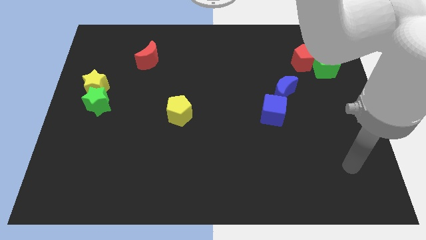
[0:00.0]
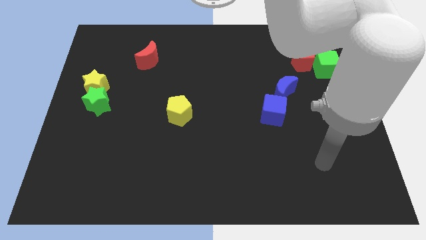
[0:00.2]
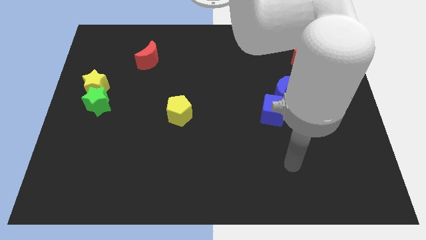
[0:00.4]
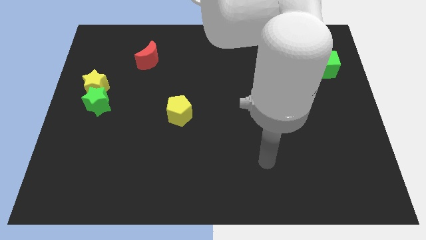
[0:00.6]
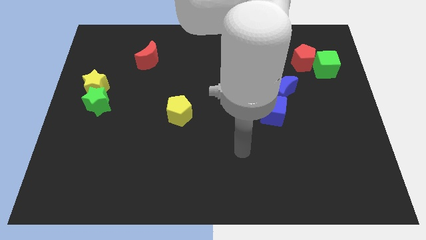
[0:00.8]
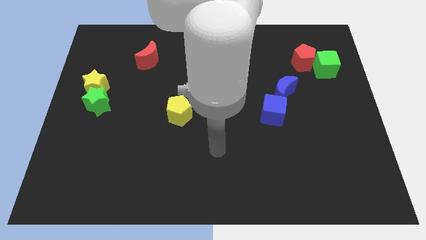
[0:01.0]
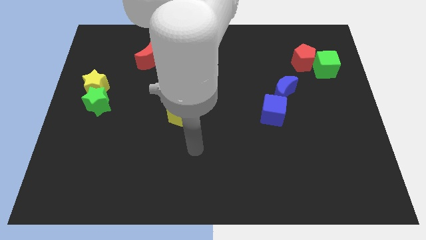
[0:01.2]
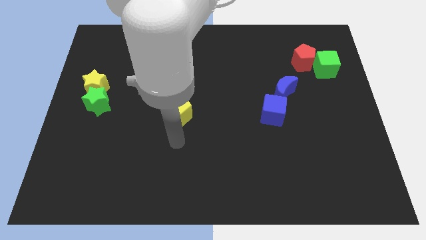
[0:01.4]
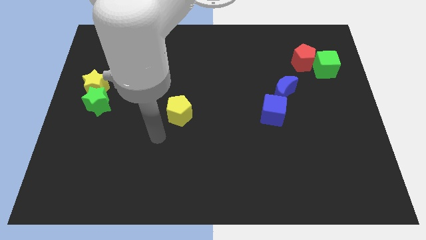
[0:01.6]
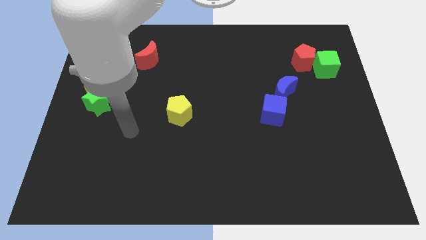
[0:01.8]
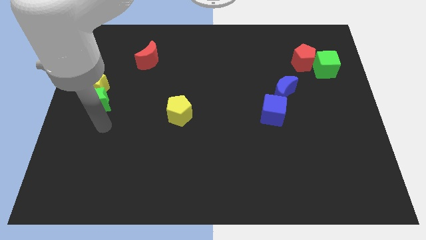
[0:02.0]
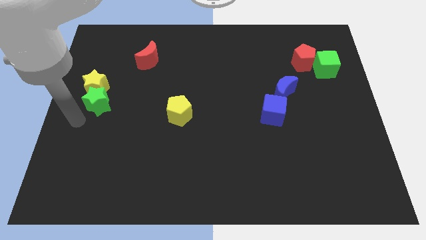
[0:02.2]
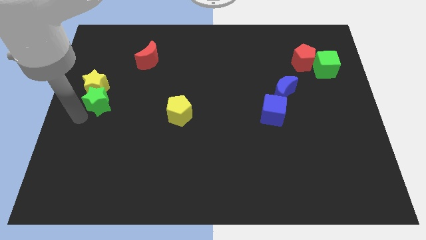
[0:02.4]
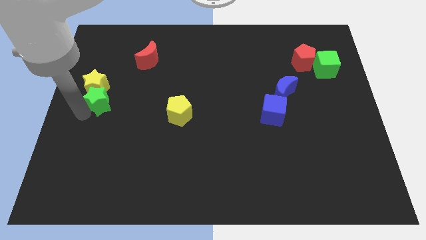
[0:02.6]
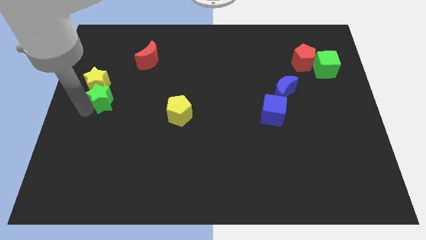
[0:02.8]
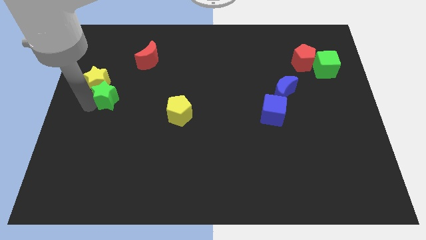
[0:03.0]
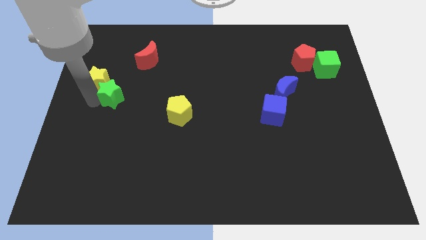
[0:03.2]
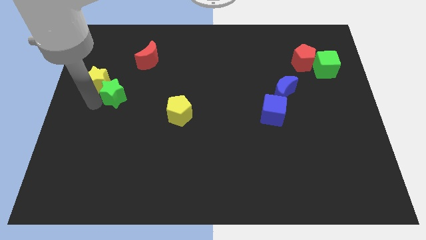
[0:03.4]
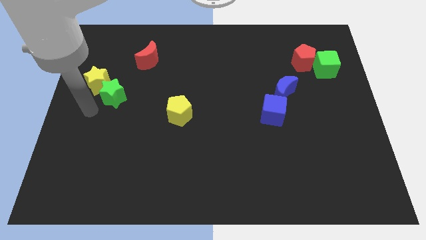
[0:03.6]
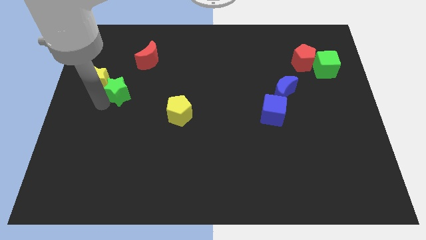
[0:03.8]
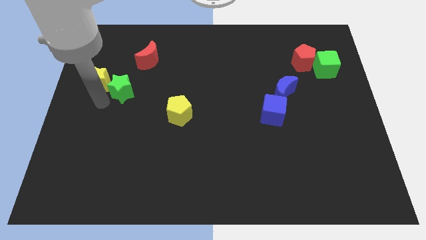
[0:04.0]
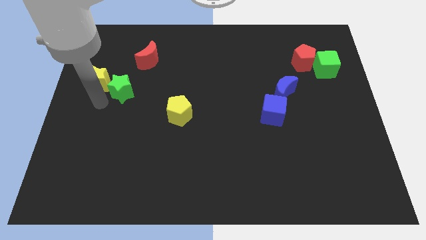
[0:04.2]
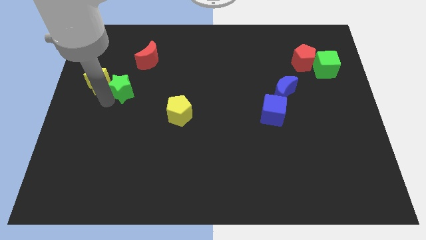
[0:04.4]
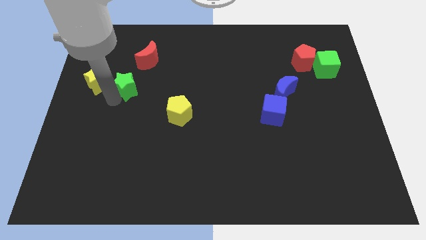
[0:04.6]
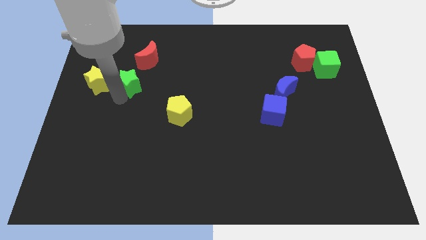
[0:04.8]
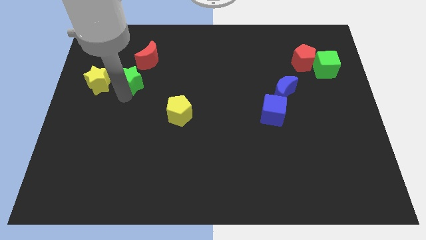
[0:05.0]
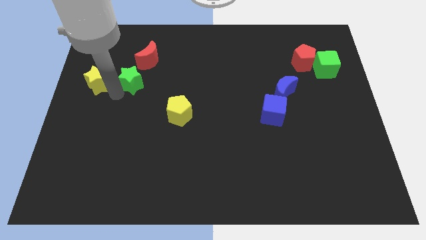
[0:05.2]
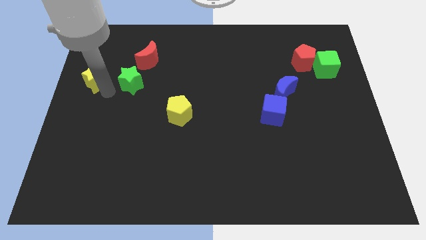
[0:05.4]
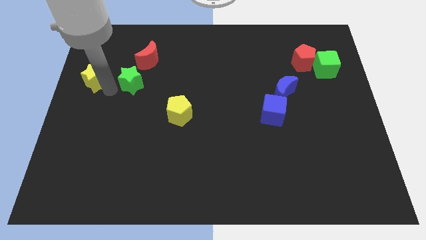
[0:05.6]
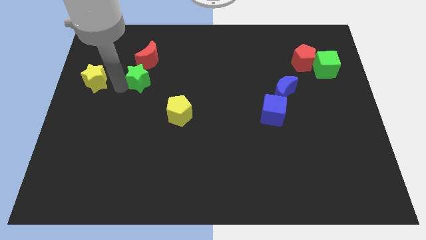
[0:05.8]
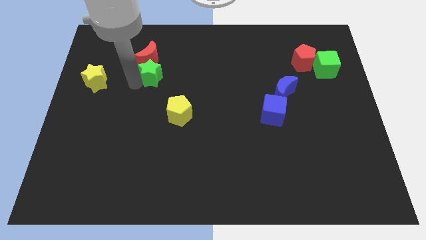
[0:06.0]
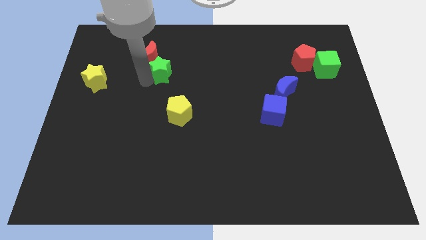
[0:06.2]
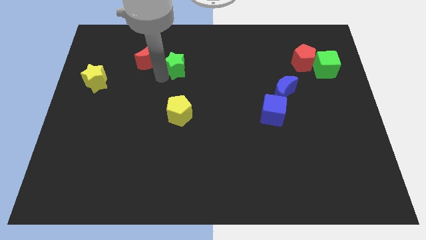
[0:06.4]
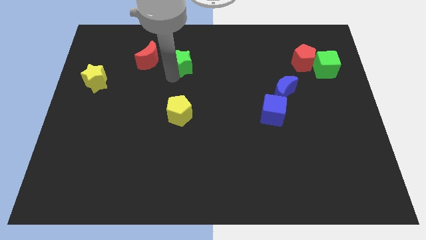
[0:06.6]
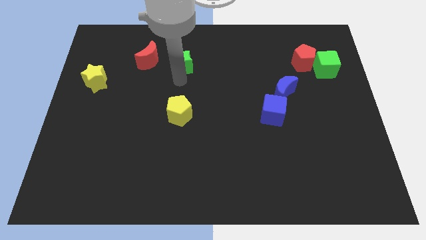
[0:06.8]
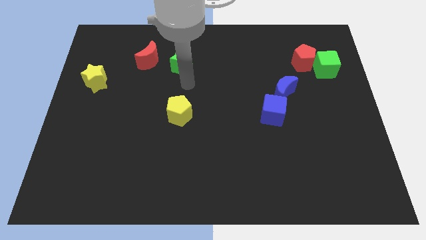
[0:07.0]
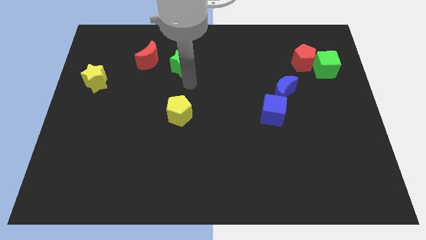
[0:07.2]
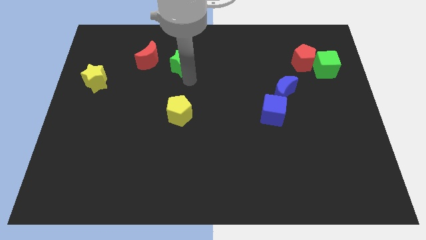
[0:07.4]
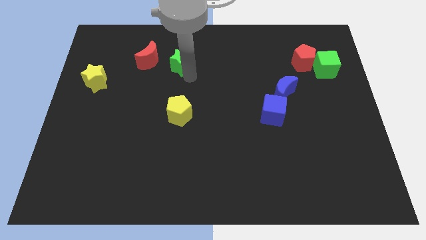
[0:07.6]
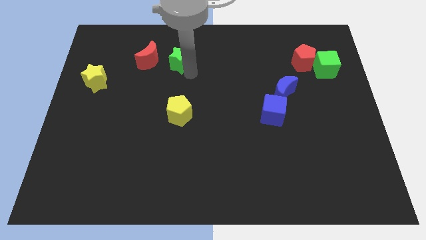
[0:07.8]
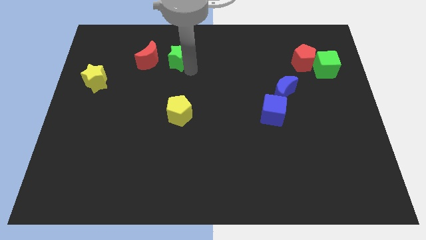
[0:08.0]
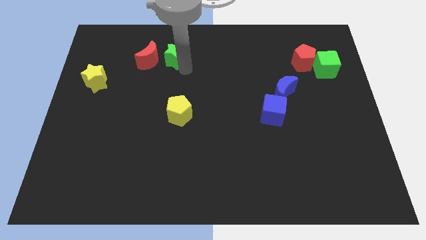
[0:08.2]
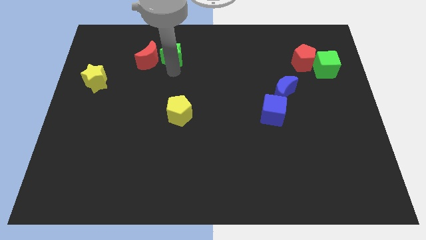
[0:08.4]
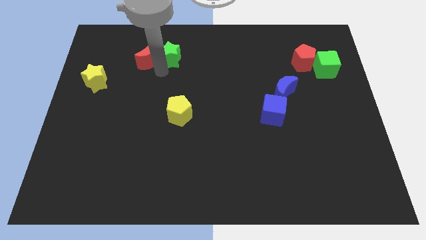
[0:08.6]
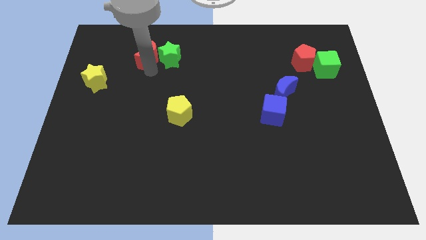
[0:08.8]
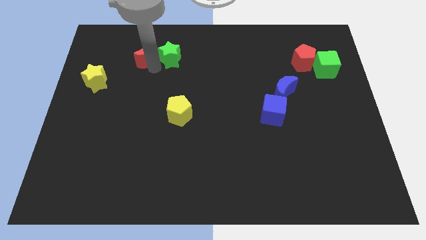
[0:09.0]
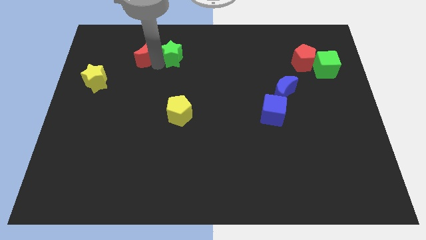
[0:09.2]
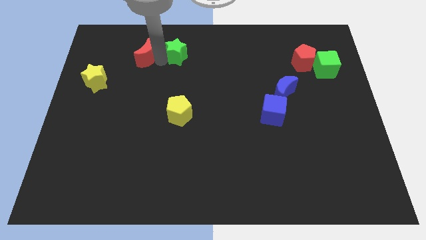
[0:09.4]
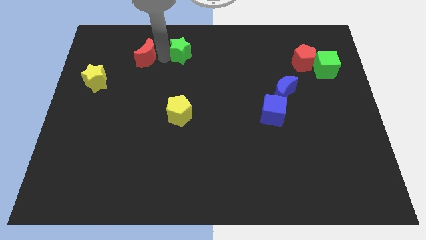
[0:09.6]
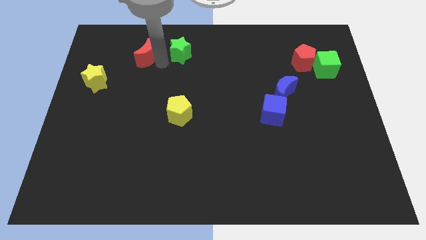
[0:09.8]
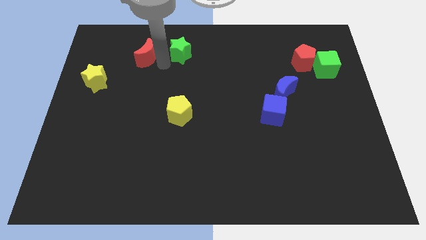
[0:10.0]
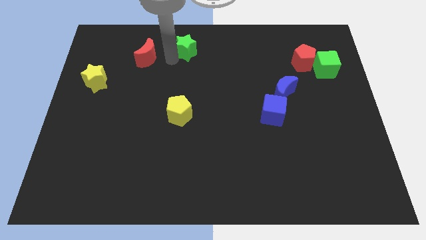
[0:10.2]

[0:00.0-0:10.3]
move the green star to the towards your base

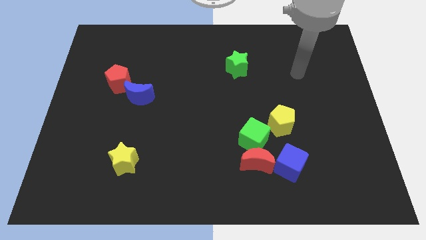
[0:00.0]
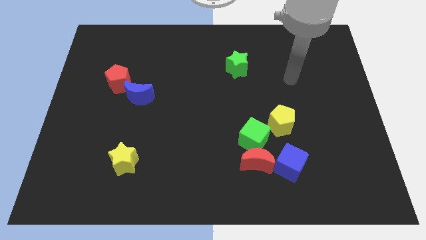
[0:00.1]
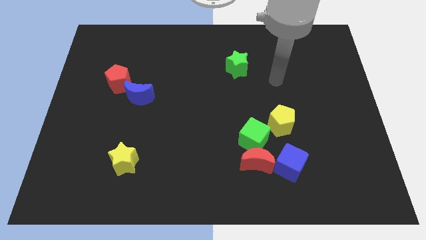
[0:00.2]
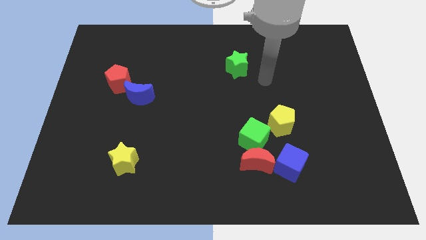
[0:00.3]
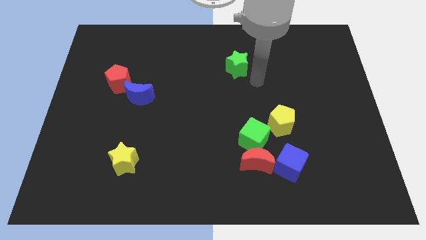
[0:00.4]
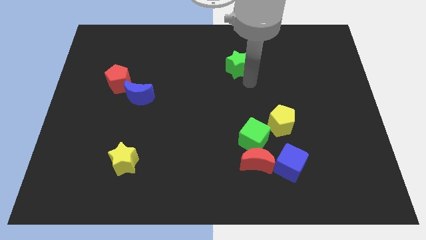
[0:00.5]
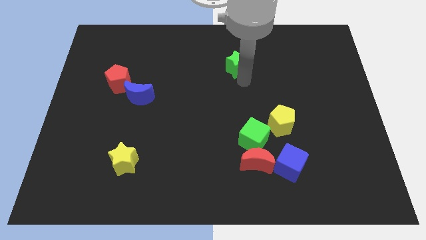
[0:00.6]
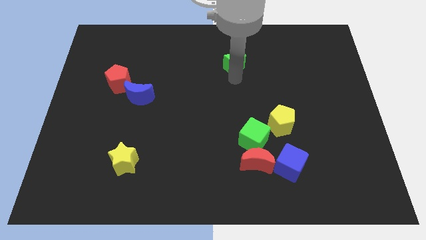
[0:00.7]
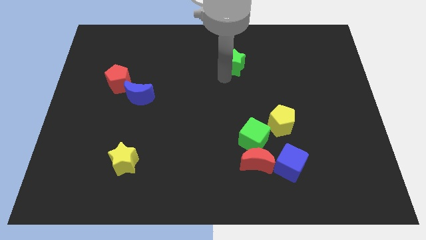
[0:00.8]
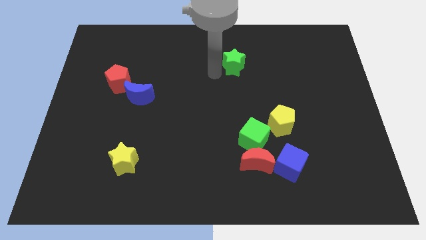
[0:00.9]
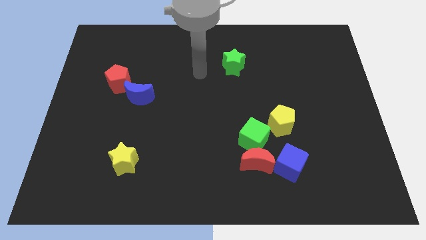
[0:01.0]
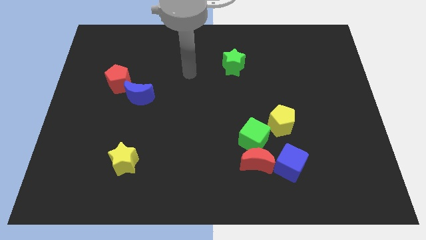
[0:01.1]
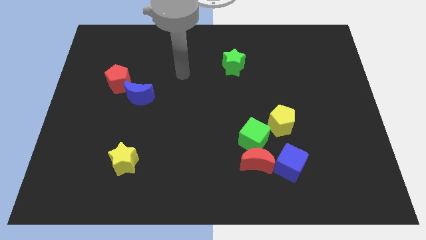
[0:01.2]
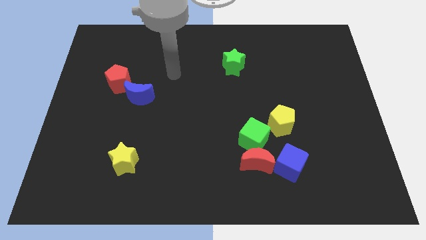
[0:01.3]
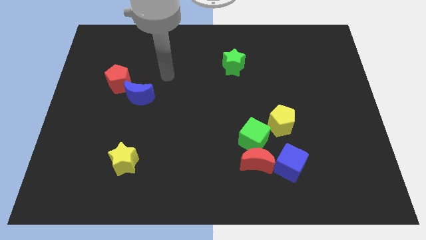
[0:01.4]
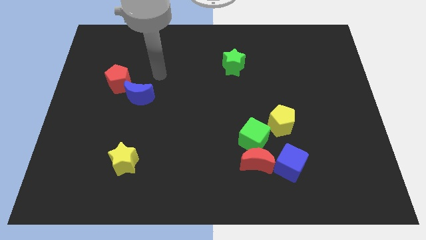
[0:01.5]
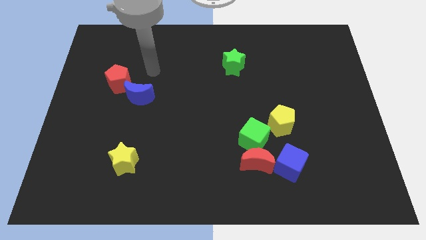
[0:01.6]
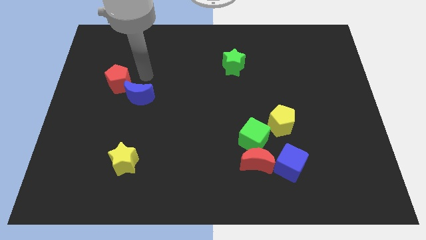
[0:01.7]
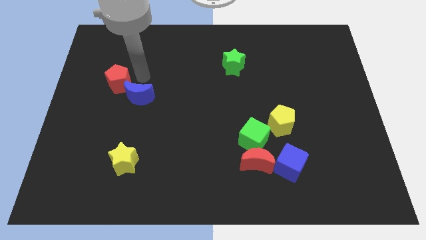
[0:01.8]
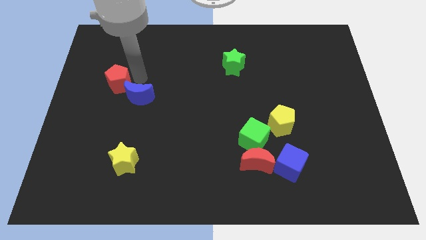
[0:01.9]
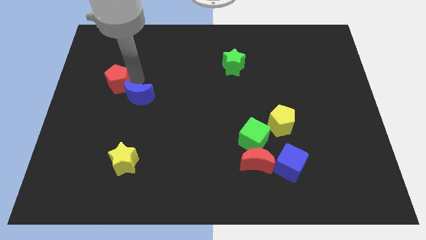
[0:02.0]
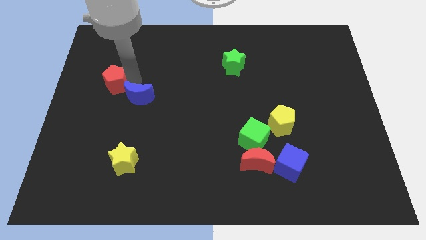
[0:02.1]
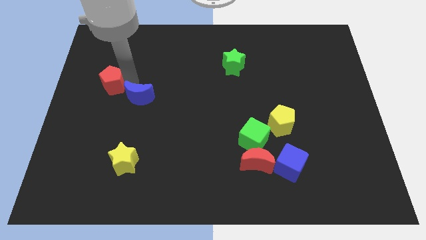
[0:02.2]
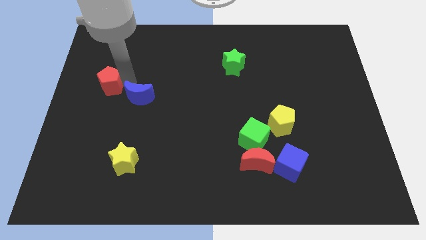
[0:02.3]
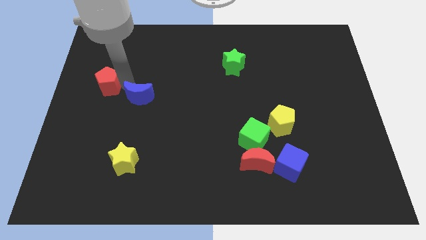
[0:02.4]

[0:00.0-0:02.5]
slide the red pentagon to the left side
